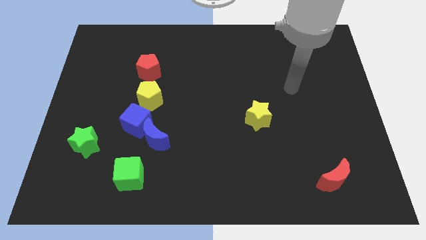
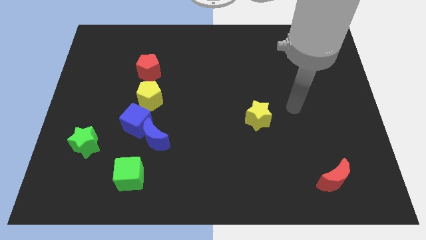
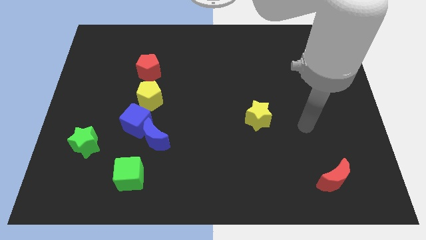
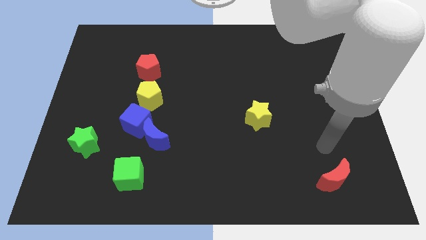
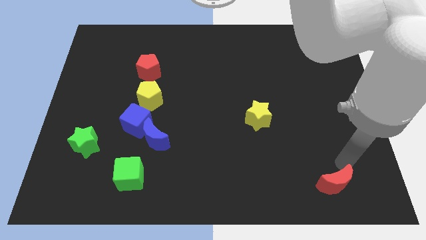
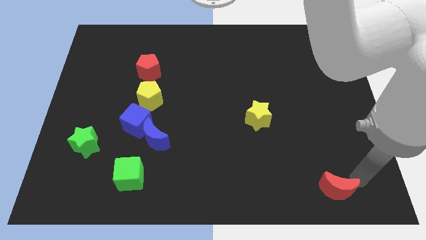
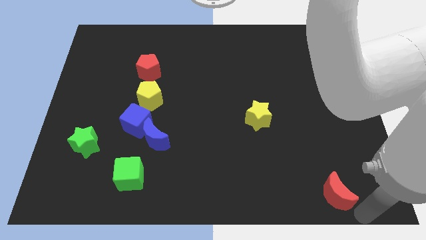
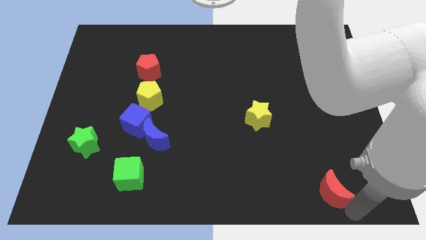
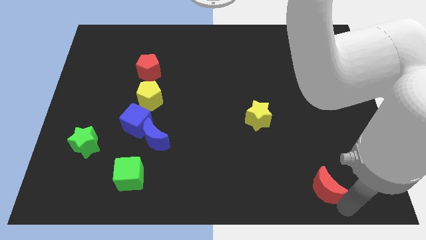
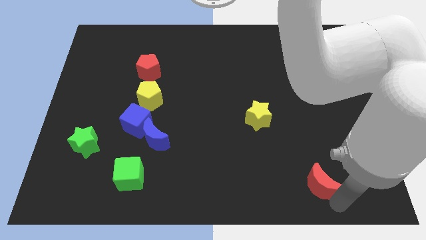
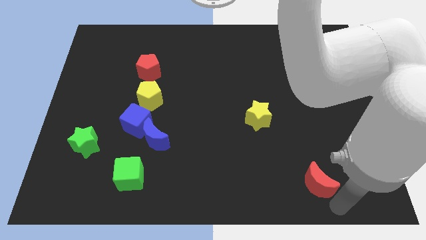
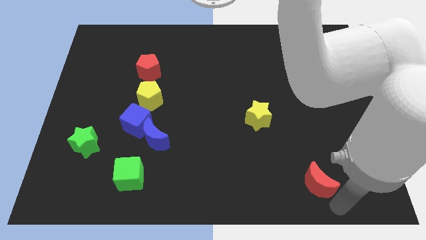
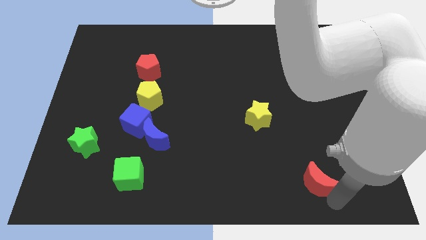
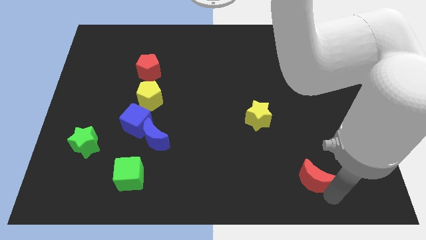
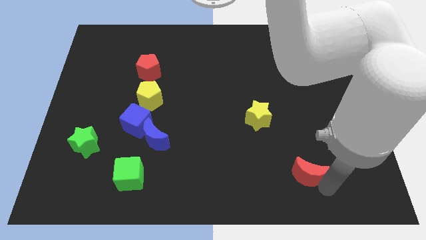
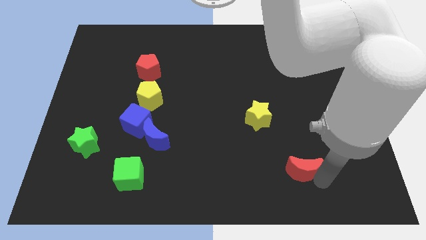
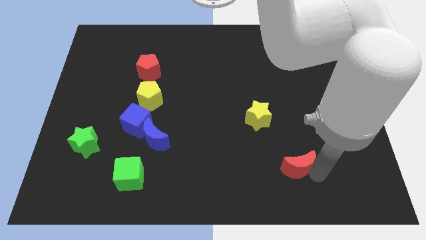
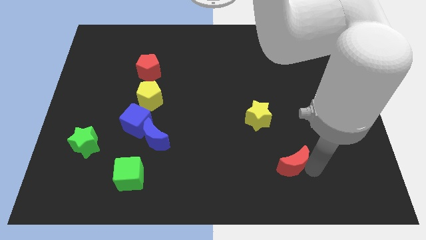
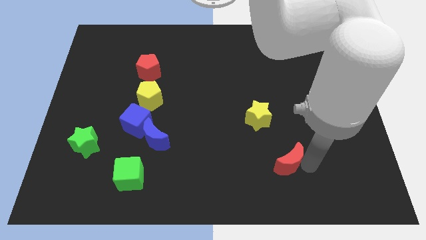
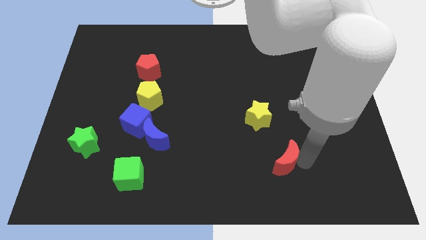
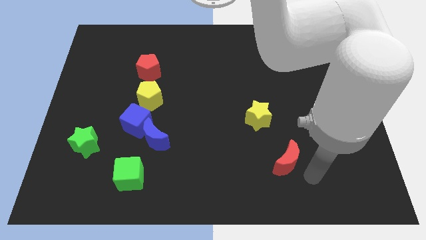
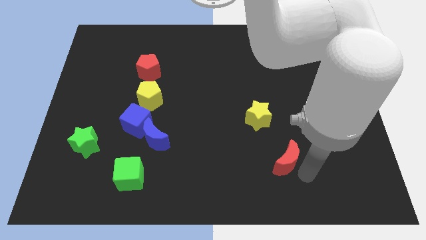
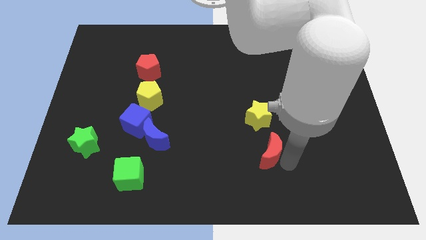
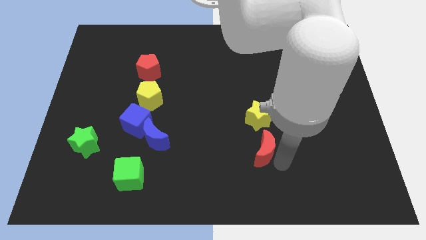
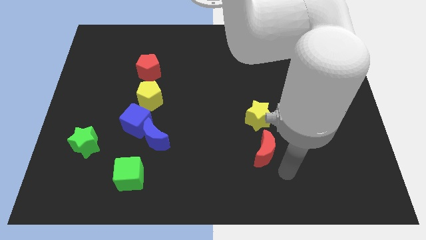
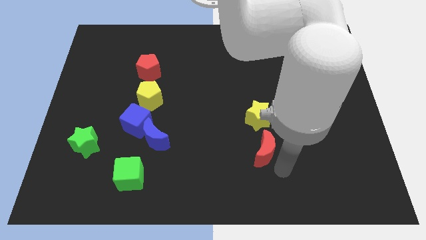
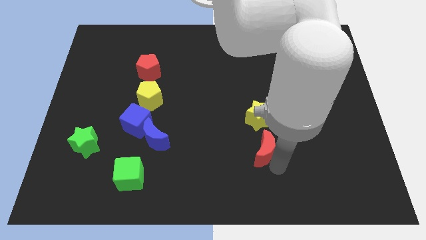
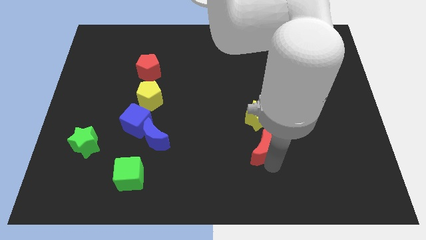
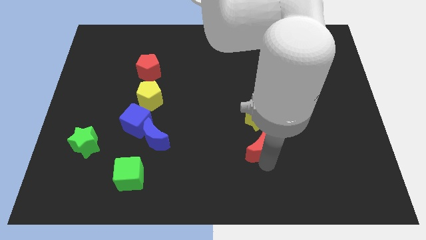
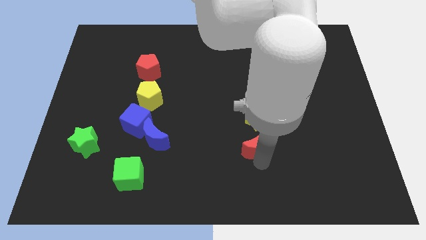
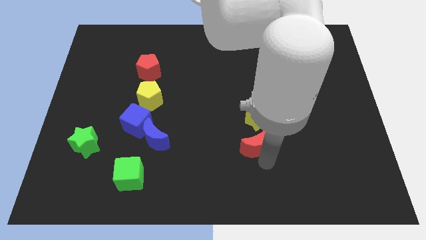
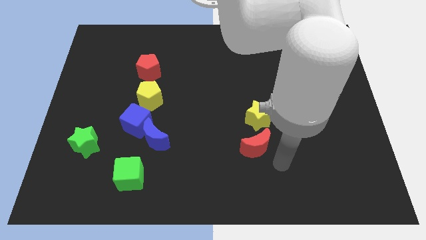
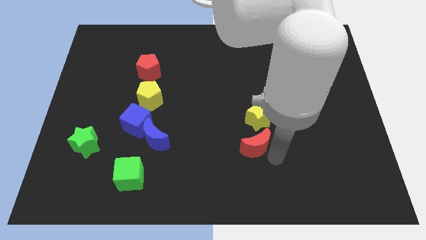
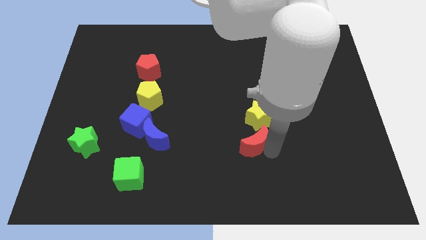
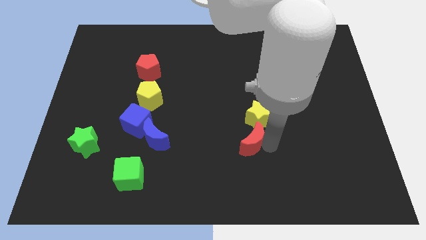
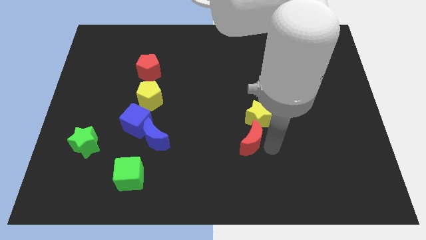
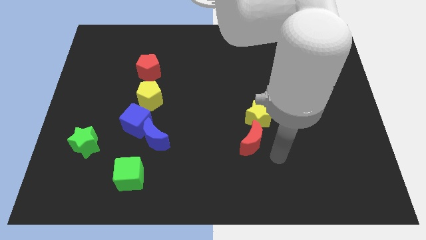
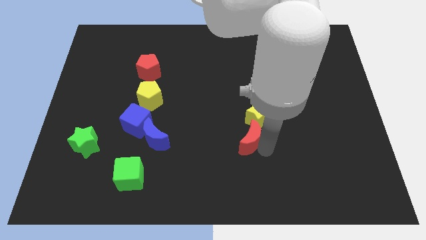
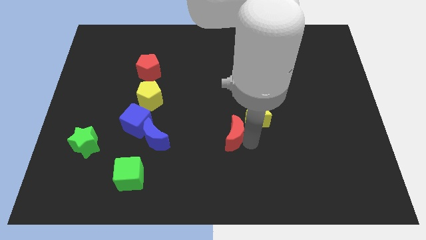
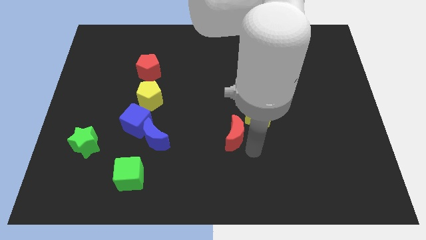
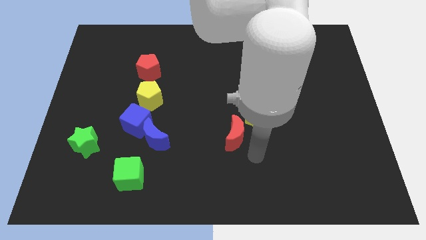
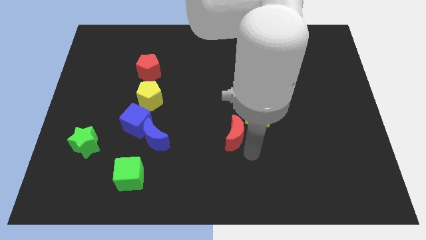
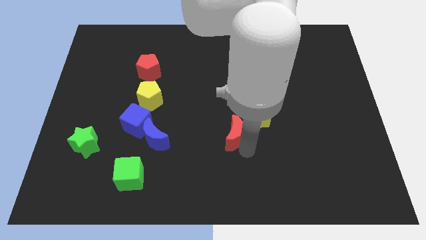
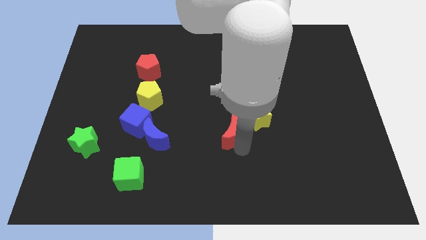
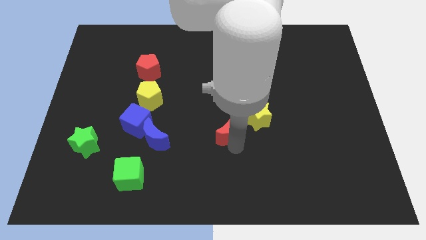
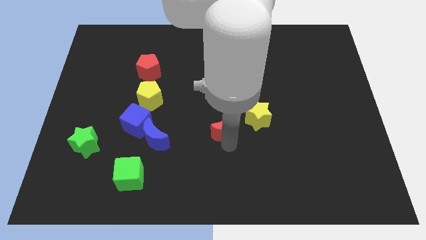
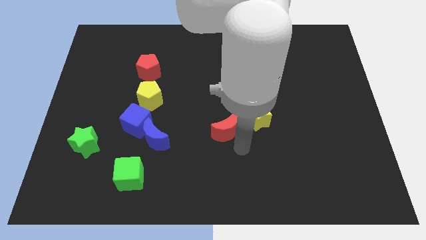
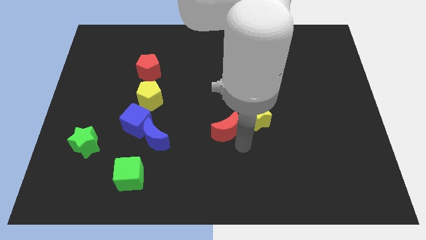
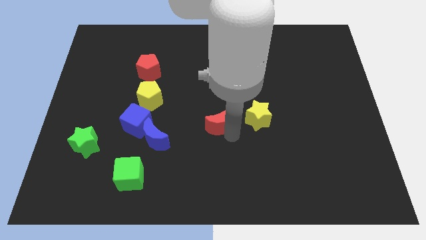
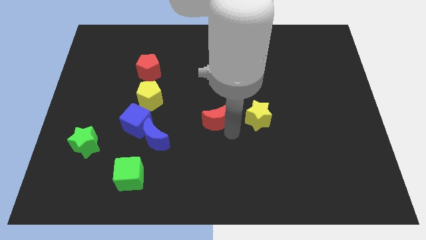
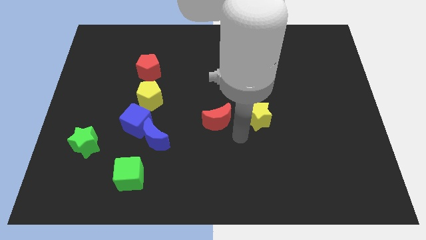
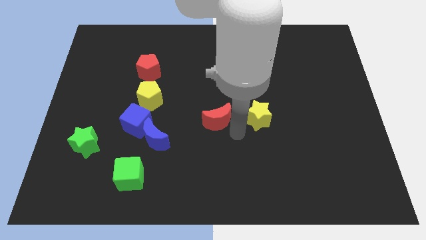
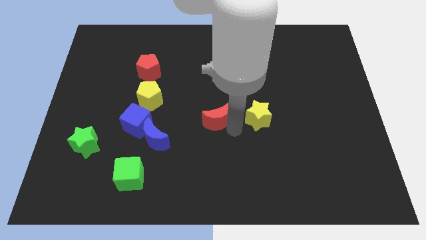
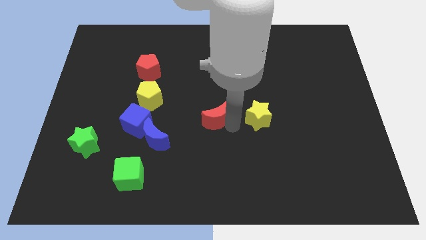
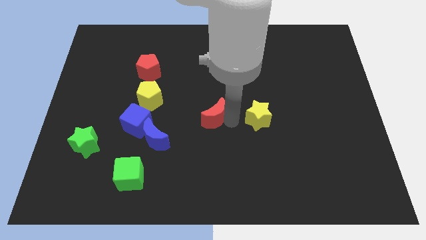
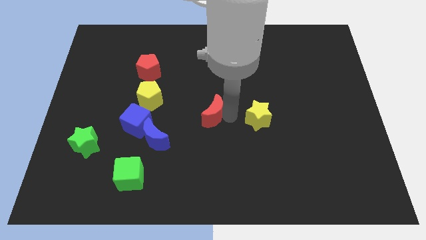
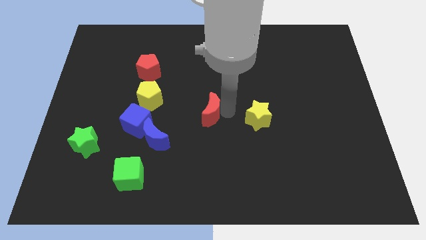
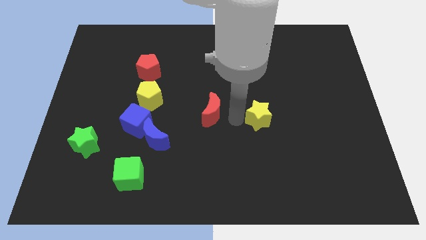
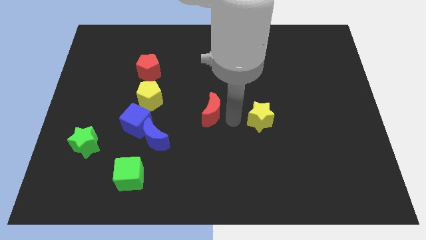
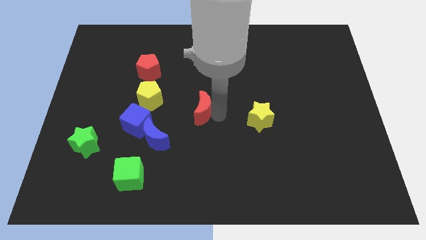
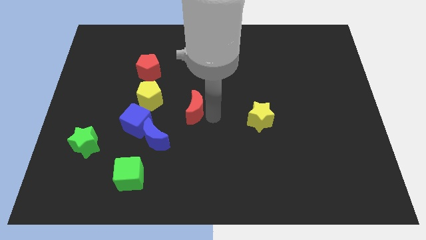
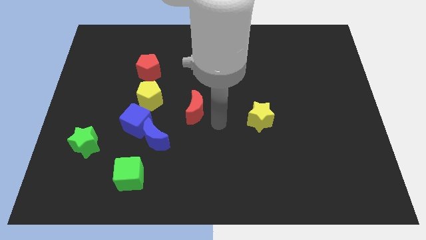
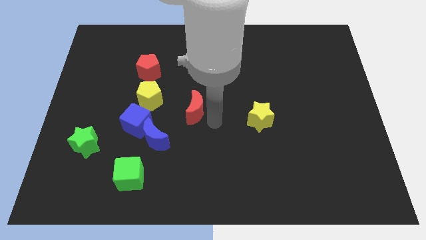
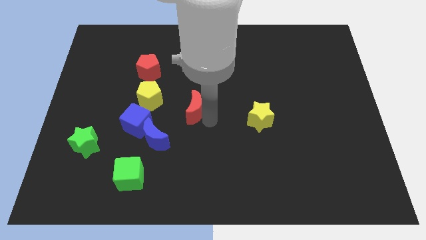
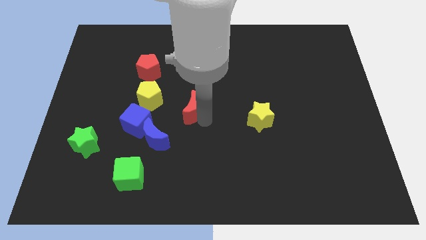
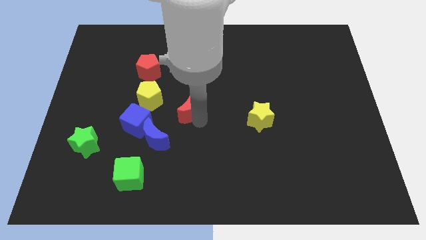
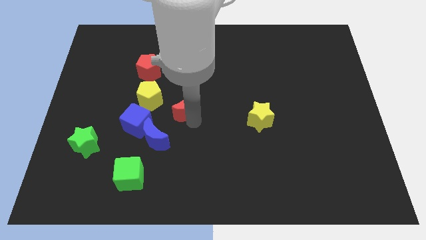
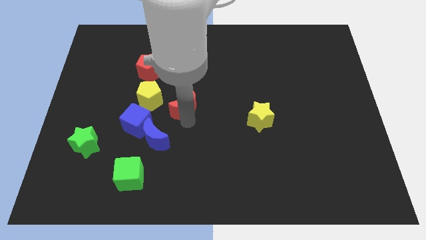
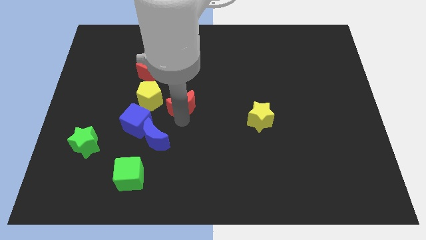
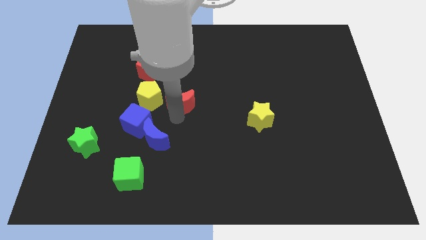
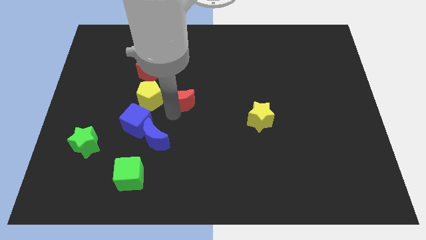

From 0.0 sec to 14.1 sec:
push the red moon above the blue moon
